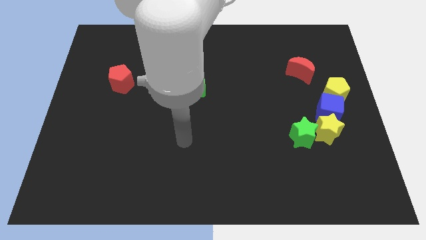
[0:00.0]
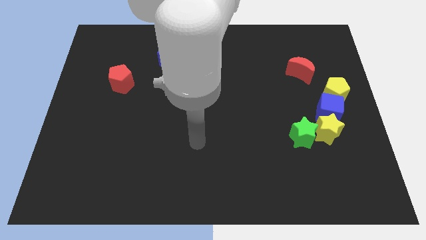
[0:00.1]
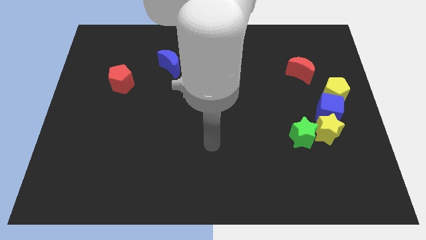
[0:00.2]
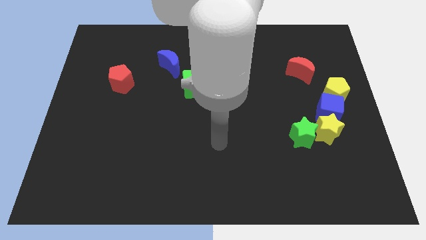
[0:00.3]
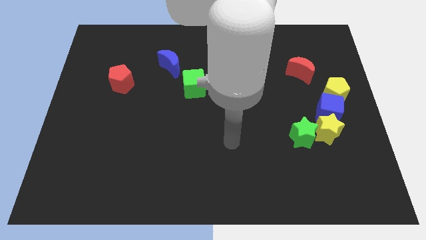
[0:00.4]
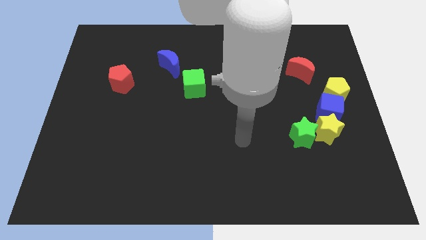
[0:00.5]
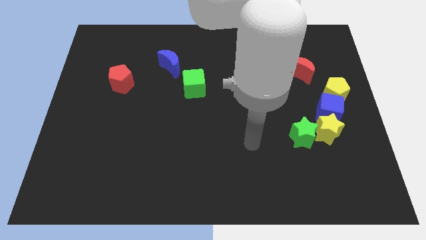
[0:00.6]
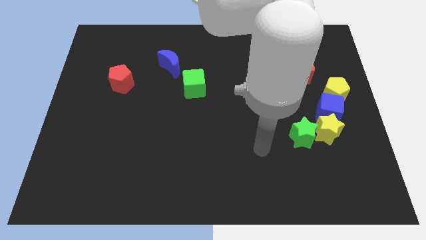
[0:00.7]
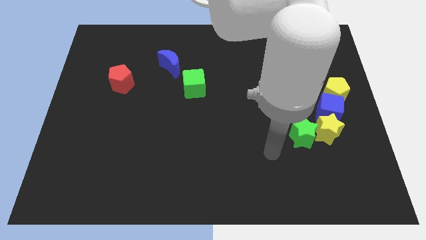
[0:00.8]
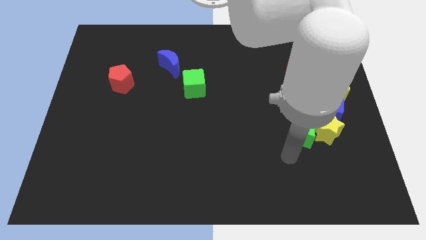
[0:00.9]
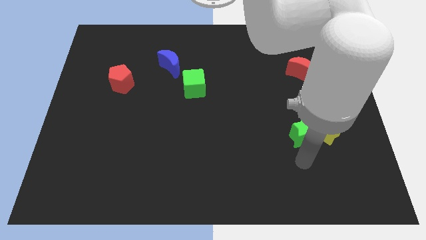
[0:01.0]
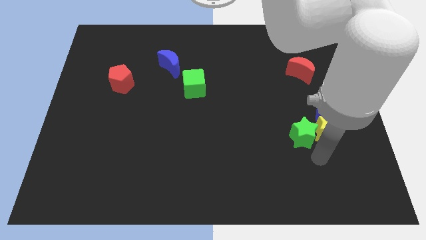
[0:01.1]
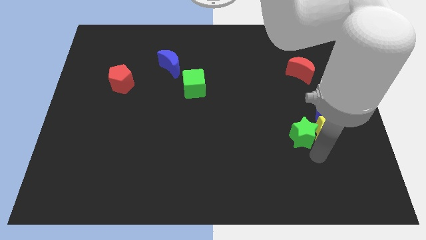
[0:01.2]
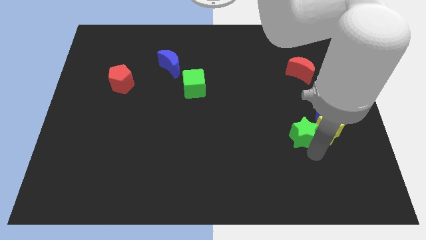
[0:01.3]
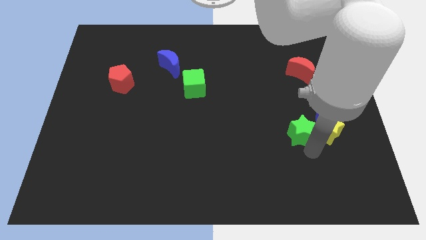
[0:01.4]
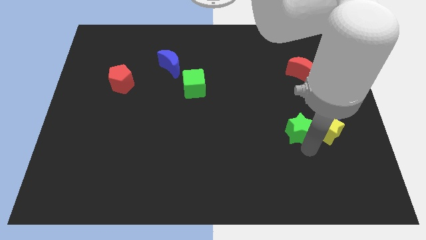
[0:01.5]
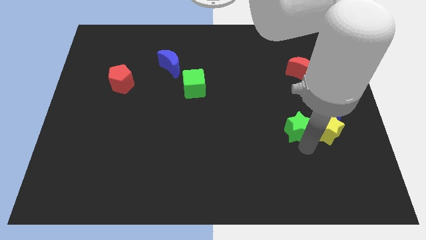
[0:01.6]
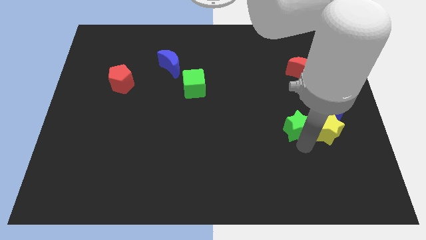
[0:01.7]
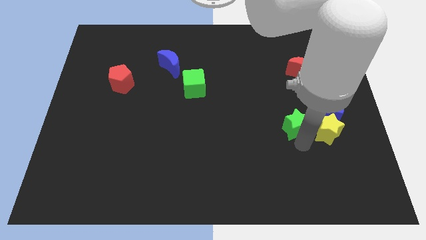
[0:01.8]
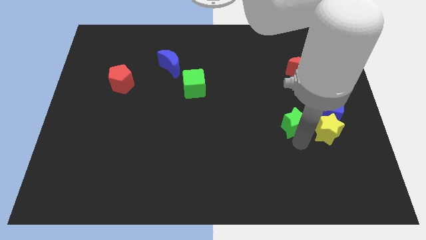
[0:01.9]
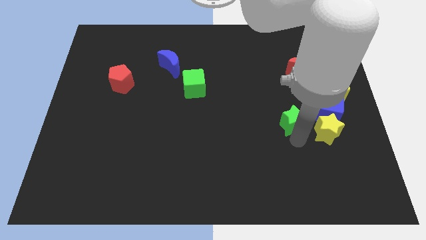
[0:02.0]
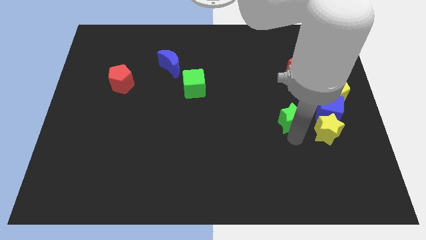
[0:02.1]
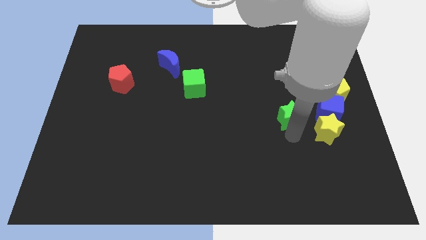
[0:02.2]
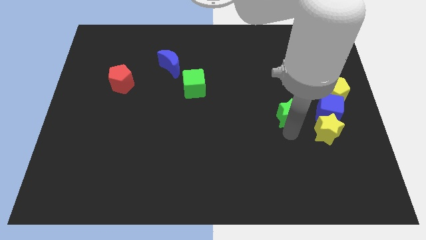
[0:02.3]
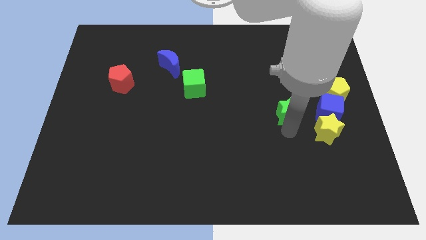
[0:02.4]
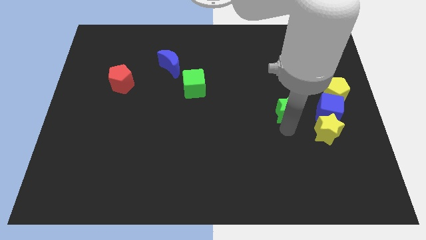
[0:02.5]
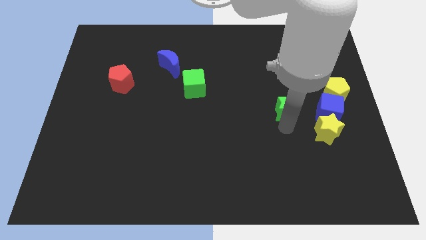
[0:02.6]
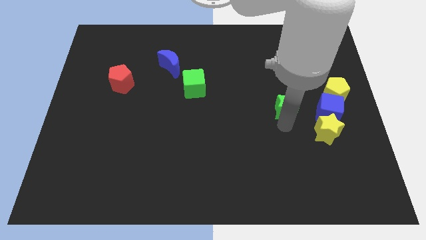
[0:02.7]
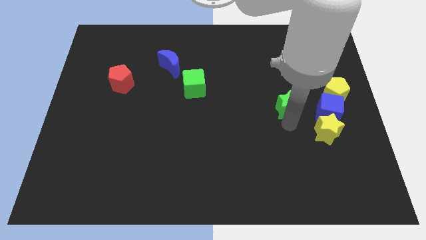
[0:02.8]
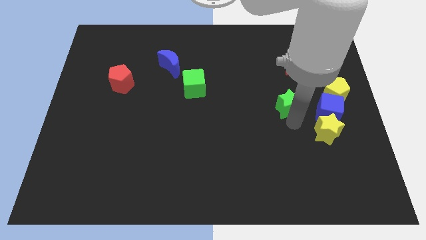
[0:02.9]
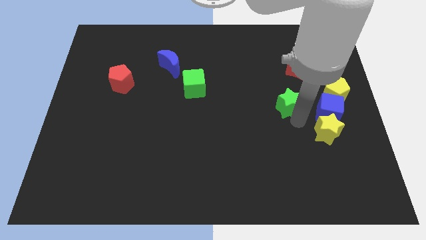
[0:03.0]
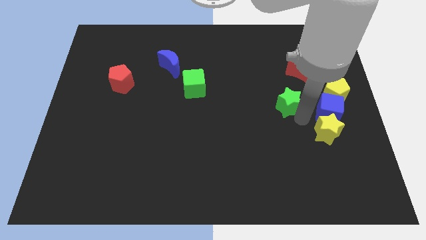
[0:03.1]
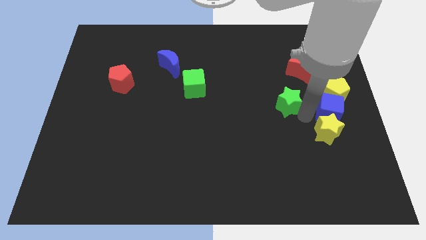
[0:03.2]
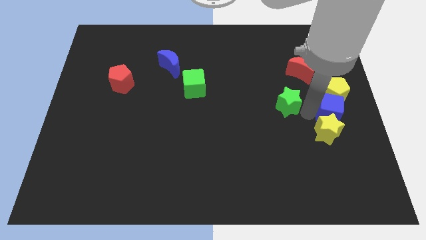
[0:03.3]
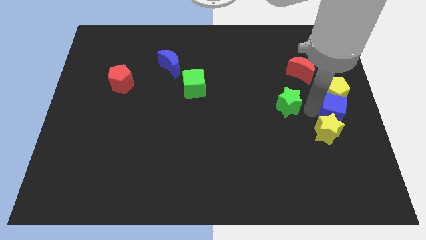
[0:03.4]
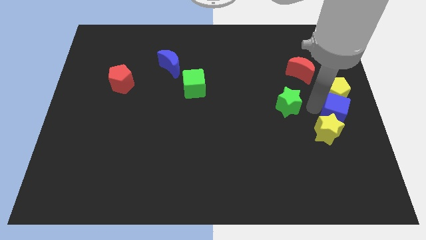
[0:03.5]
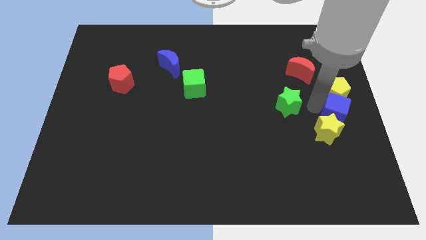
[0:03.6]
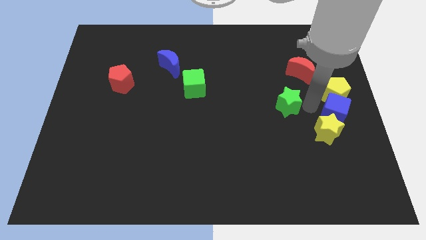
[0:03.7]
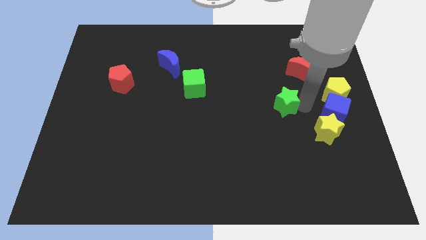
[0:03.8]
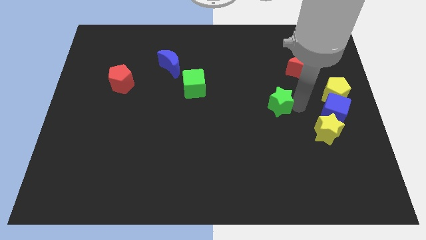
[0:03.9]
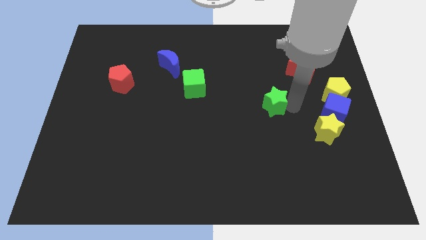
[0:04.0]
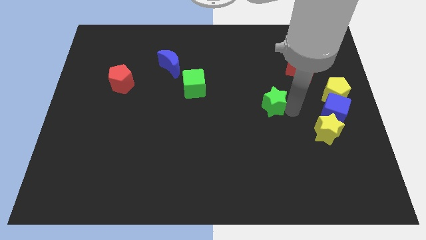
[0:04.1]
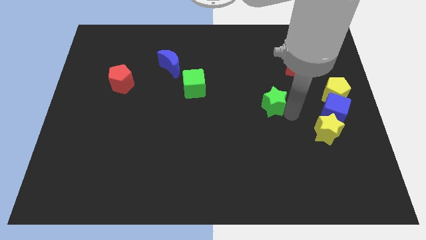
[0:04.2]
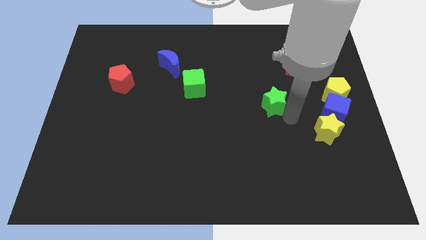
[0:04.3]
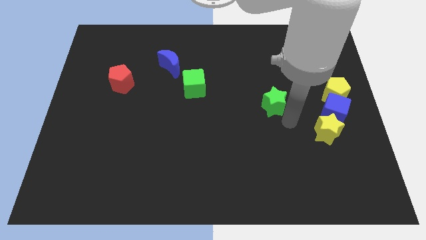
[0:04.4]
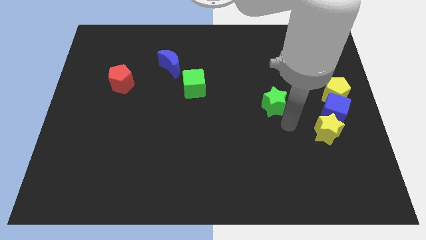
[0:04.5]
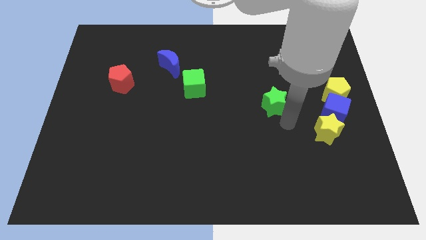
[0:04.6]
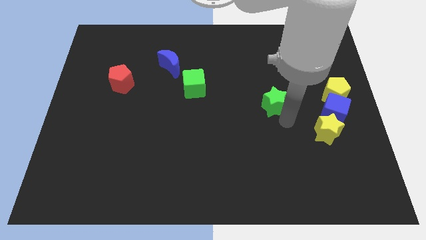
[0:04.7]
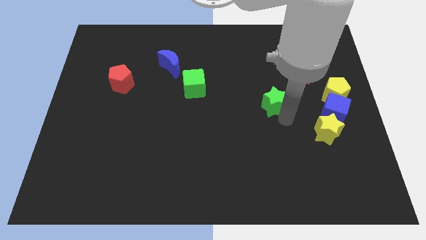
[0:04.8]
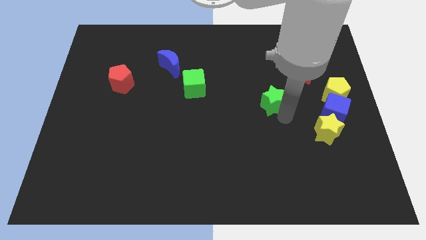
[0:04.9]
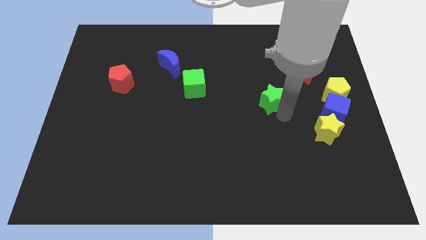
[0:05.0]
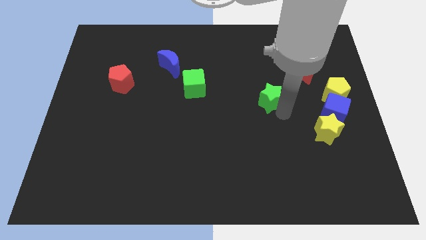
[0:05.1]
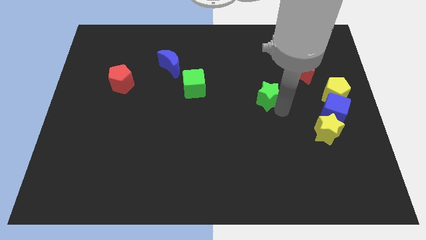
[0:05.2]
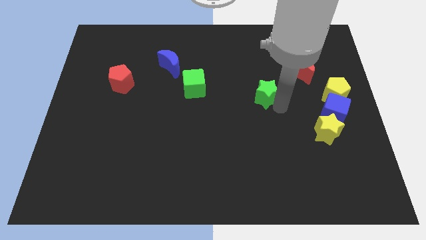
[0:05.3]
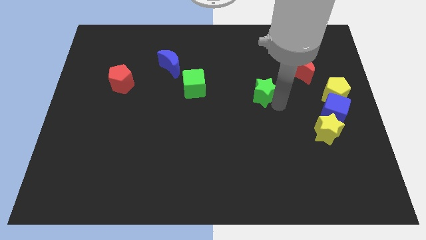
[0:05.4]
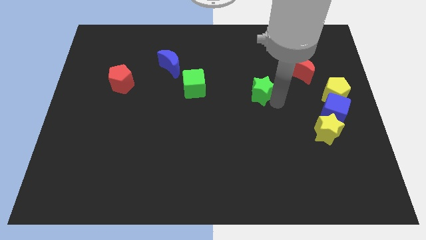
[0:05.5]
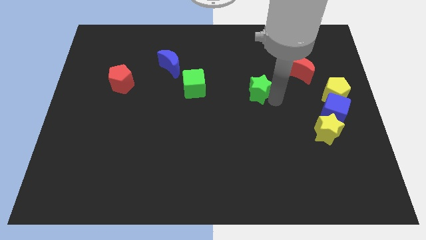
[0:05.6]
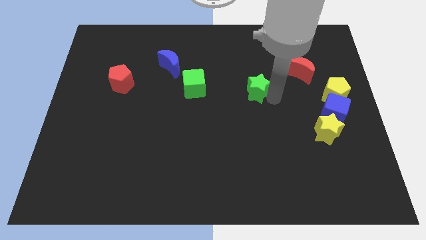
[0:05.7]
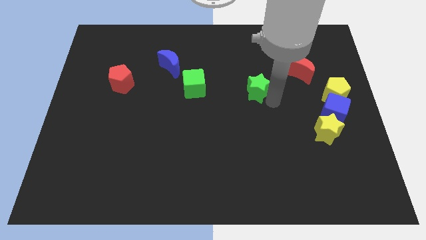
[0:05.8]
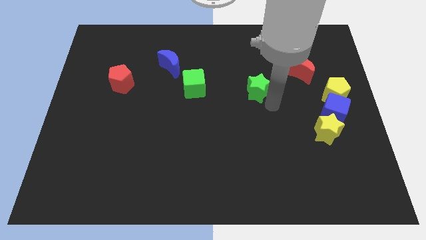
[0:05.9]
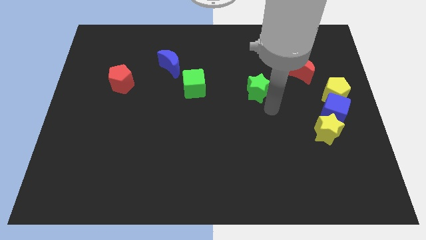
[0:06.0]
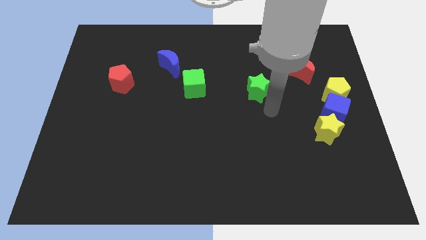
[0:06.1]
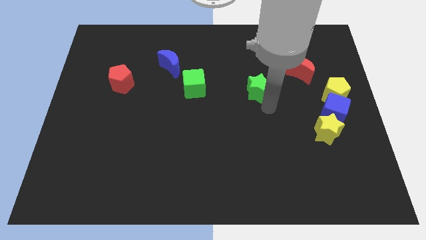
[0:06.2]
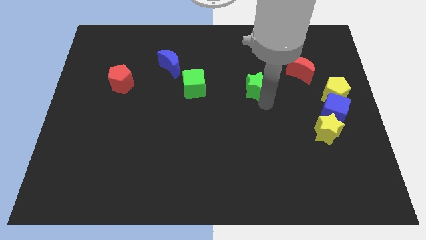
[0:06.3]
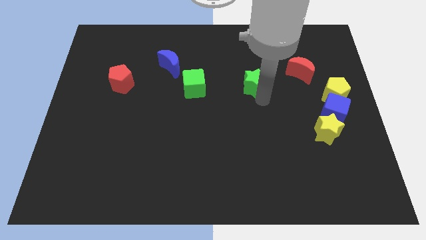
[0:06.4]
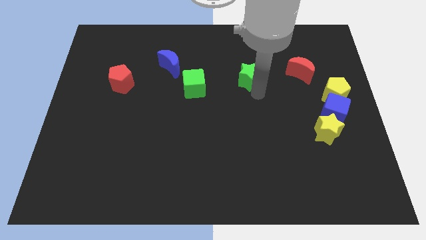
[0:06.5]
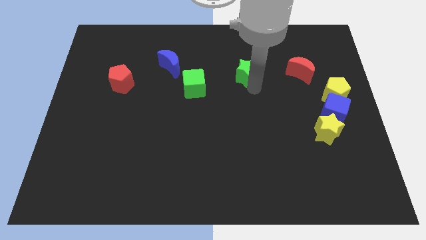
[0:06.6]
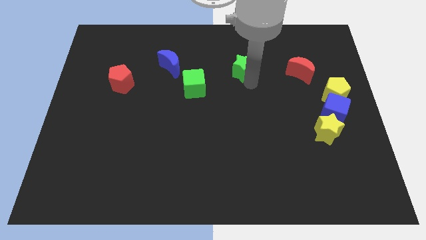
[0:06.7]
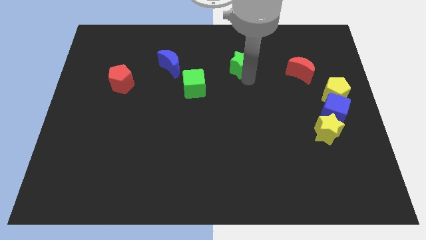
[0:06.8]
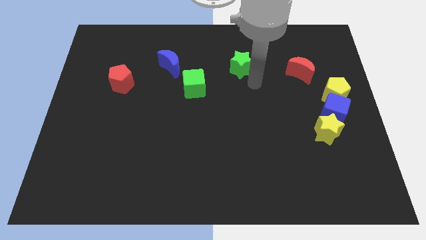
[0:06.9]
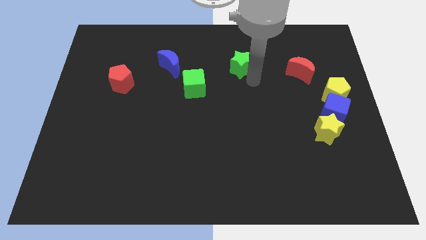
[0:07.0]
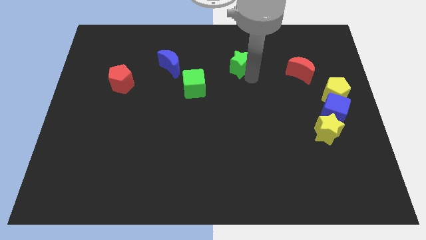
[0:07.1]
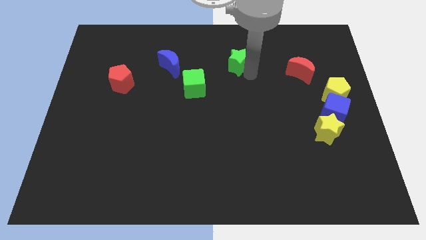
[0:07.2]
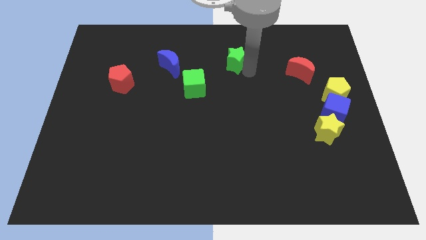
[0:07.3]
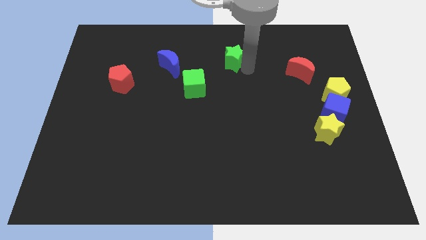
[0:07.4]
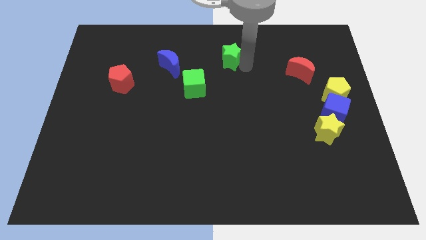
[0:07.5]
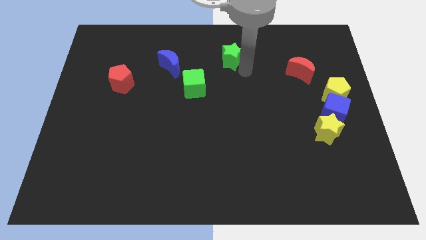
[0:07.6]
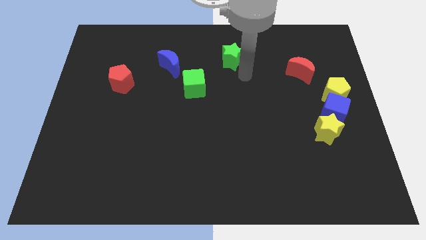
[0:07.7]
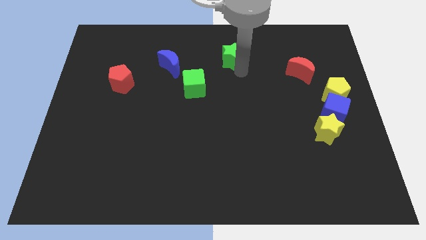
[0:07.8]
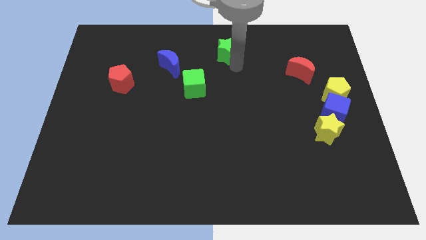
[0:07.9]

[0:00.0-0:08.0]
slide the green star to the towards your base
